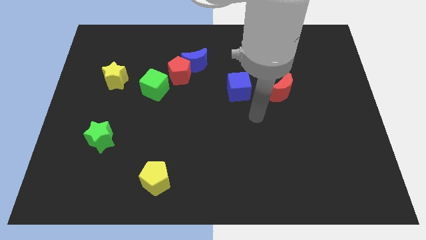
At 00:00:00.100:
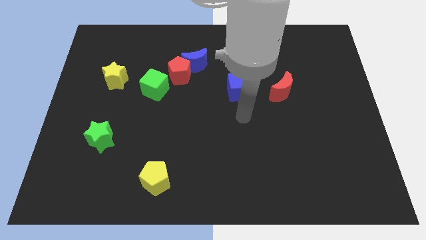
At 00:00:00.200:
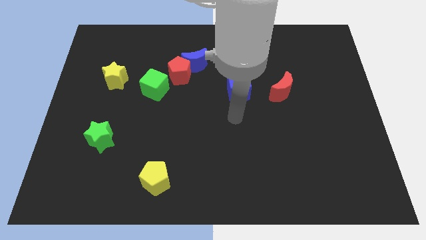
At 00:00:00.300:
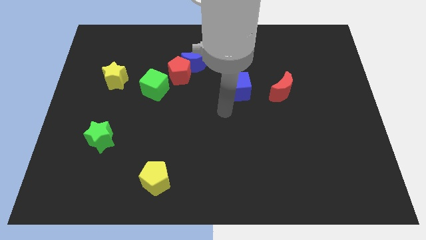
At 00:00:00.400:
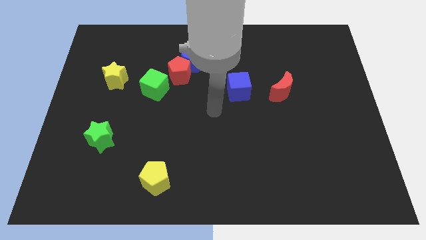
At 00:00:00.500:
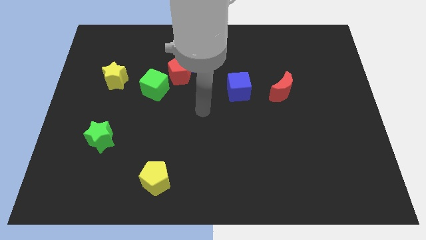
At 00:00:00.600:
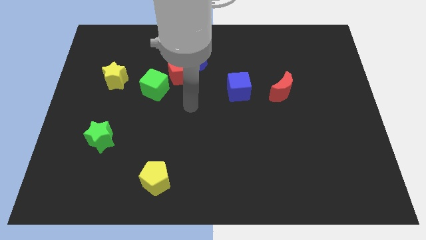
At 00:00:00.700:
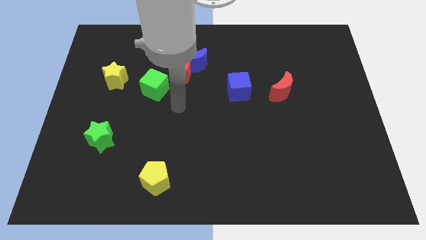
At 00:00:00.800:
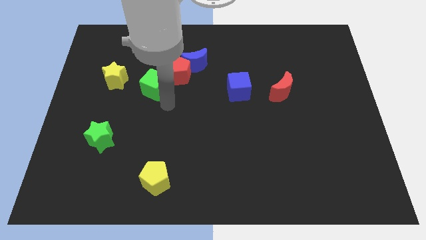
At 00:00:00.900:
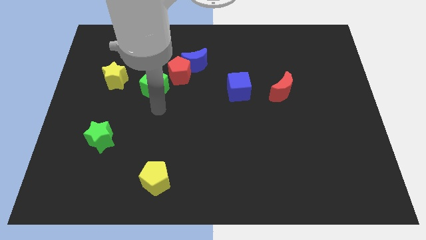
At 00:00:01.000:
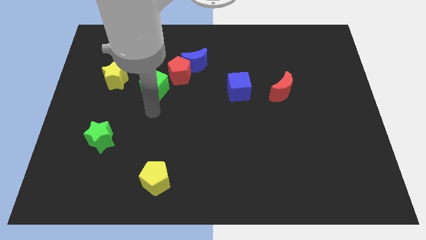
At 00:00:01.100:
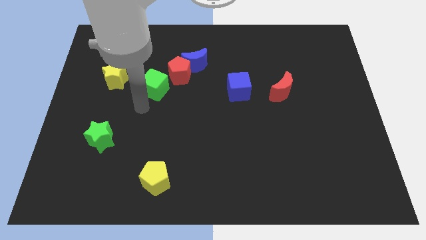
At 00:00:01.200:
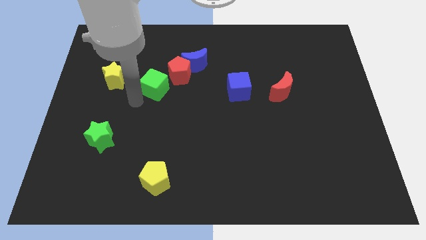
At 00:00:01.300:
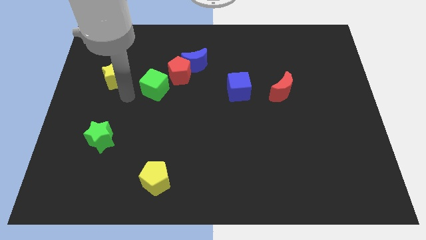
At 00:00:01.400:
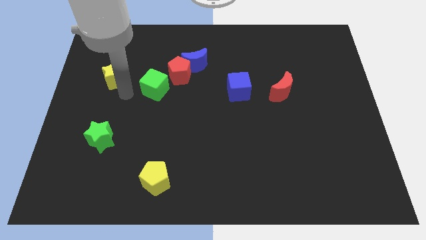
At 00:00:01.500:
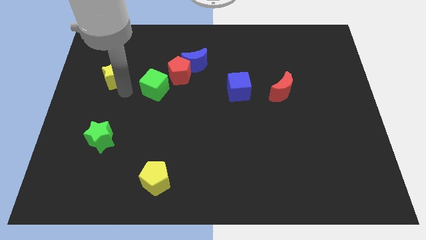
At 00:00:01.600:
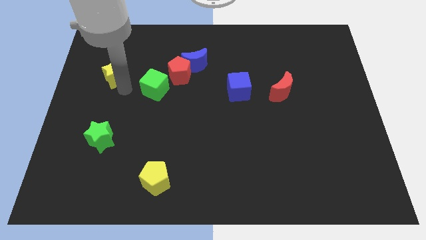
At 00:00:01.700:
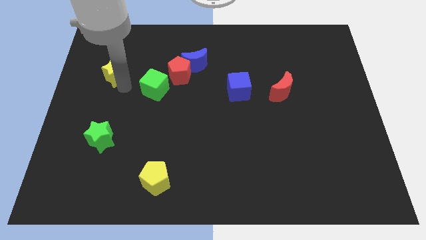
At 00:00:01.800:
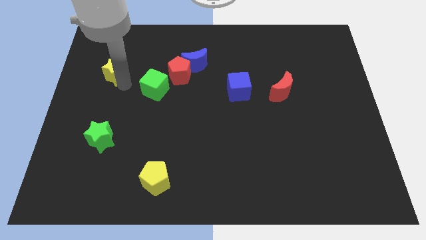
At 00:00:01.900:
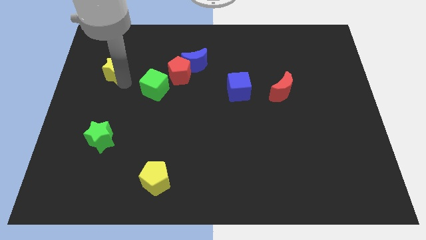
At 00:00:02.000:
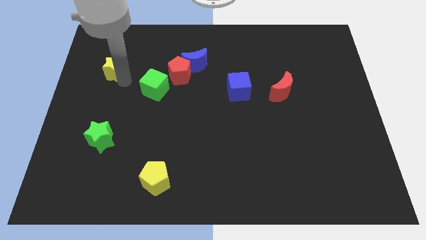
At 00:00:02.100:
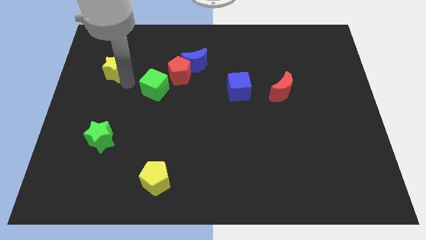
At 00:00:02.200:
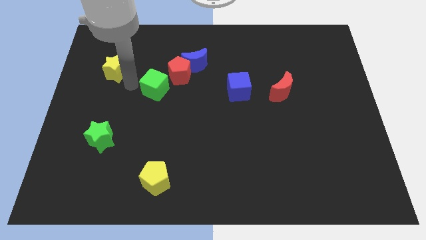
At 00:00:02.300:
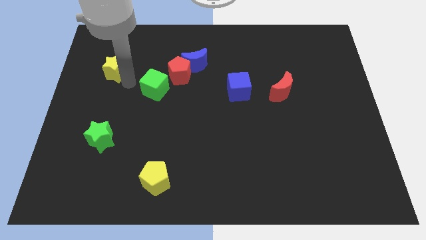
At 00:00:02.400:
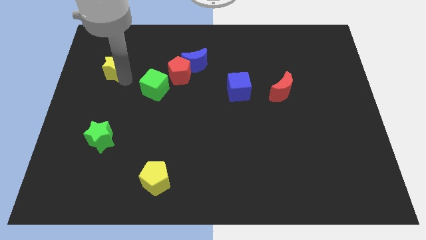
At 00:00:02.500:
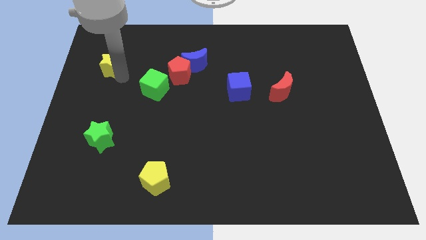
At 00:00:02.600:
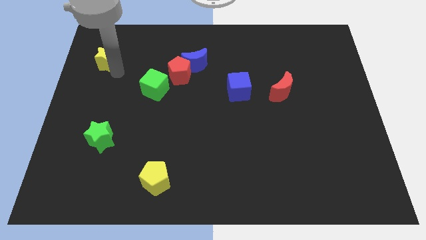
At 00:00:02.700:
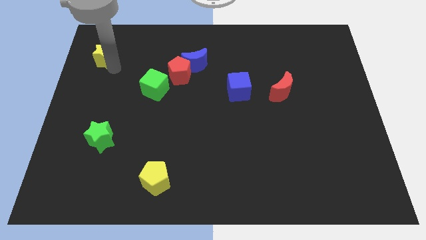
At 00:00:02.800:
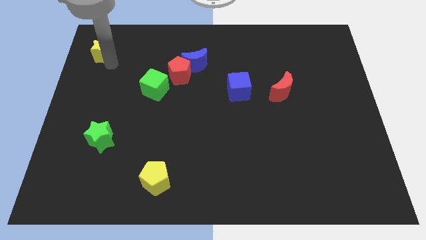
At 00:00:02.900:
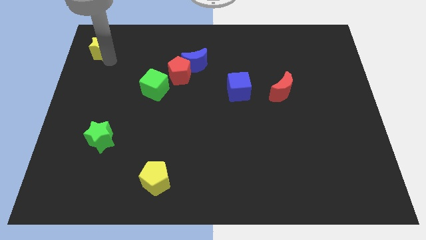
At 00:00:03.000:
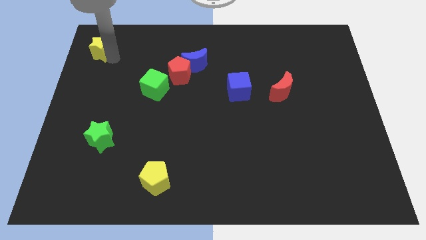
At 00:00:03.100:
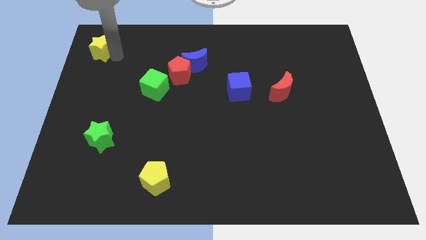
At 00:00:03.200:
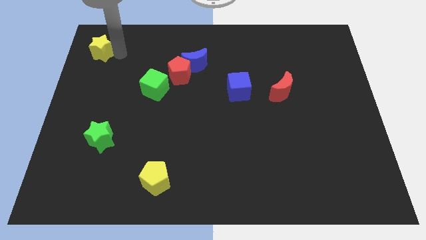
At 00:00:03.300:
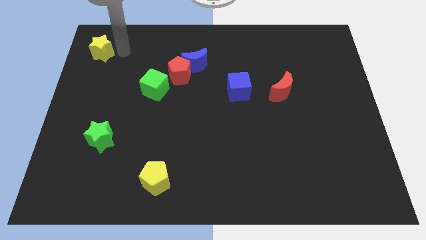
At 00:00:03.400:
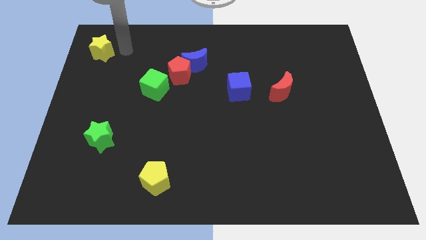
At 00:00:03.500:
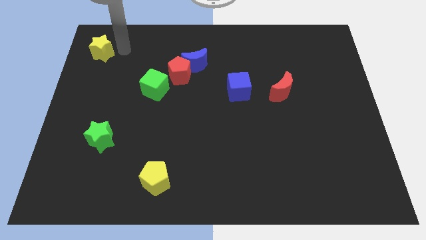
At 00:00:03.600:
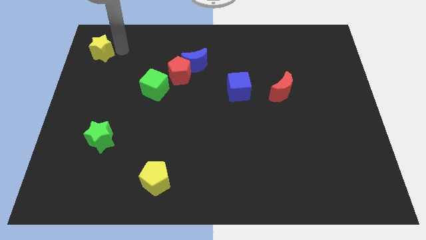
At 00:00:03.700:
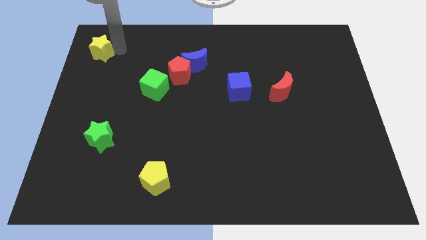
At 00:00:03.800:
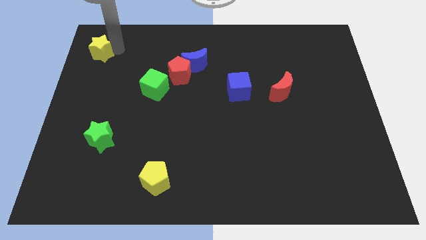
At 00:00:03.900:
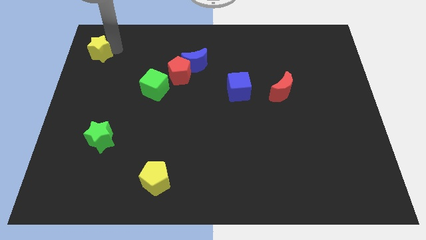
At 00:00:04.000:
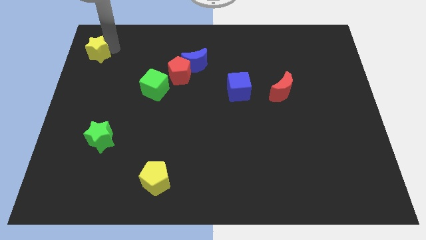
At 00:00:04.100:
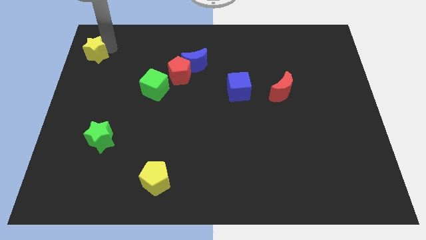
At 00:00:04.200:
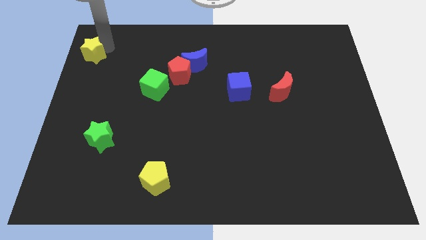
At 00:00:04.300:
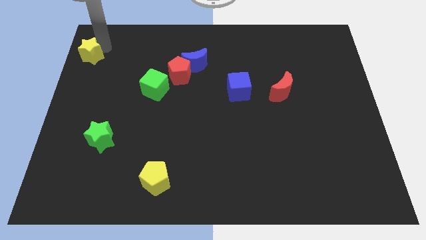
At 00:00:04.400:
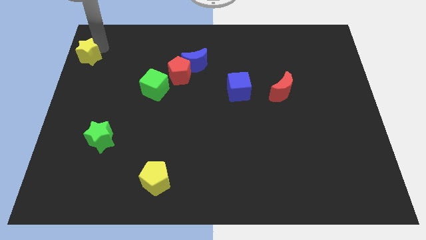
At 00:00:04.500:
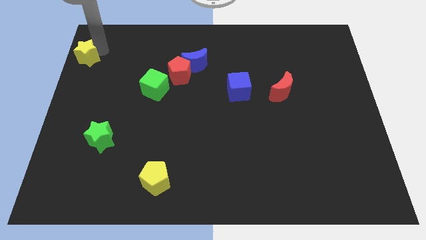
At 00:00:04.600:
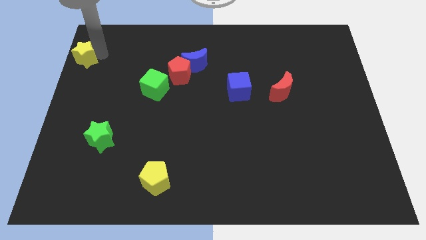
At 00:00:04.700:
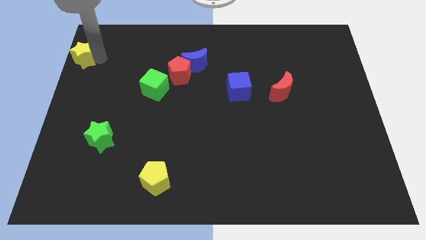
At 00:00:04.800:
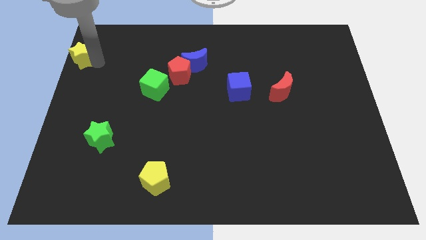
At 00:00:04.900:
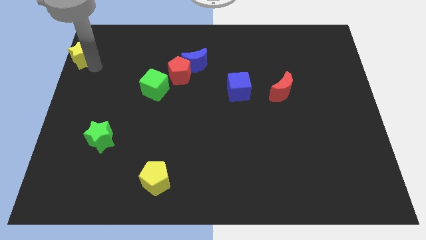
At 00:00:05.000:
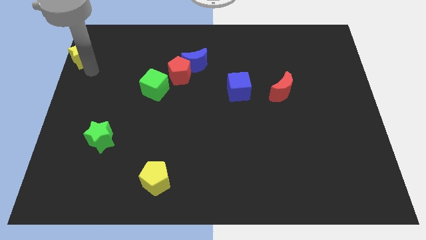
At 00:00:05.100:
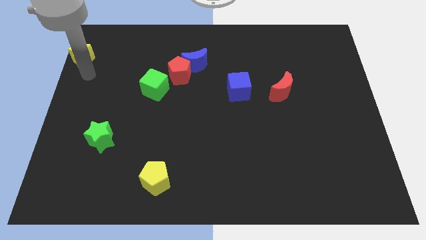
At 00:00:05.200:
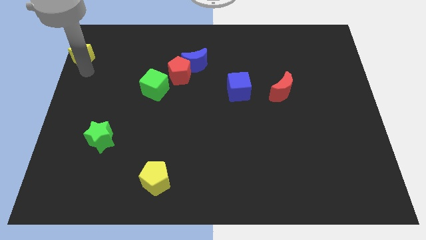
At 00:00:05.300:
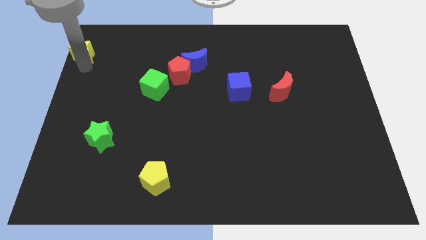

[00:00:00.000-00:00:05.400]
move the yellow star to the top left of the board

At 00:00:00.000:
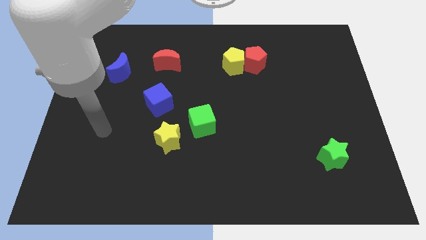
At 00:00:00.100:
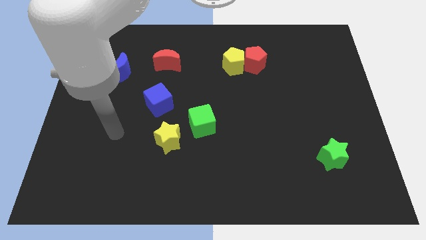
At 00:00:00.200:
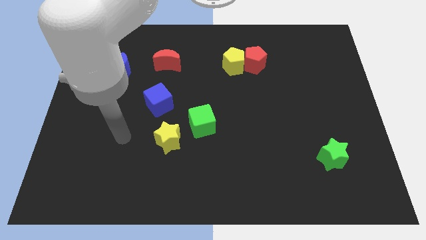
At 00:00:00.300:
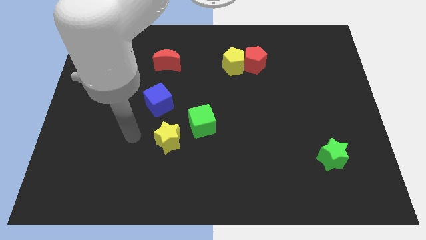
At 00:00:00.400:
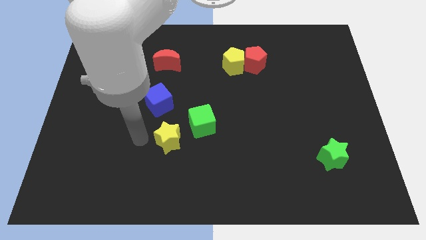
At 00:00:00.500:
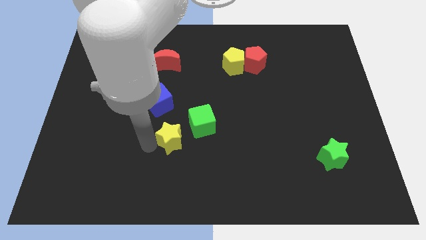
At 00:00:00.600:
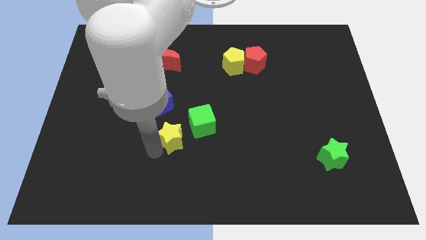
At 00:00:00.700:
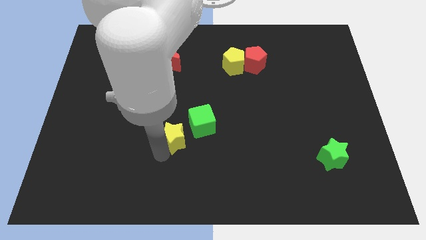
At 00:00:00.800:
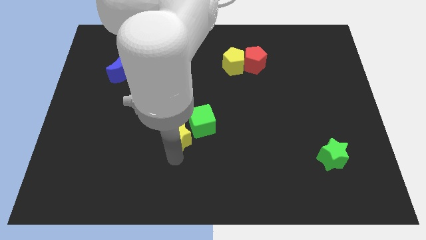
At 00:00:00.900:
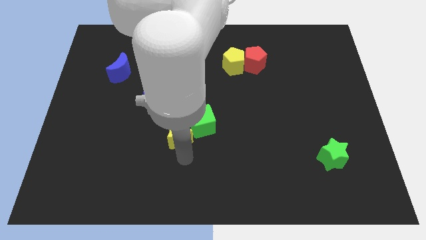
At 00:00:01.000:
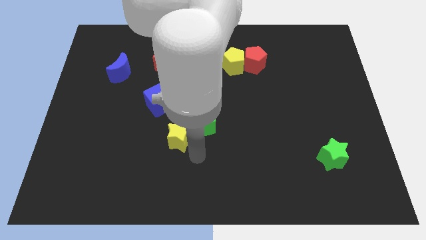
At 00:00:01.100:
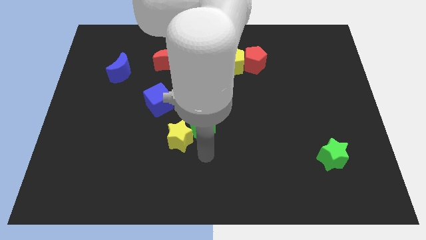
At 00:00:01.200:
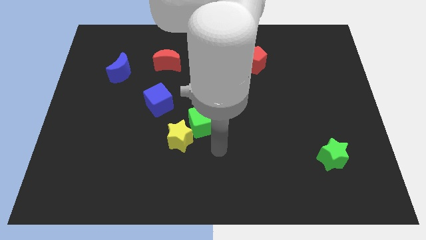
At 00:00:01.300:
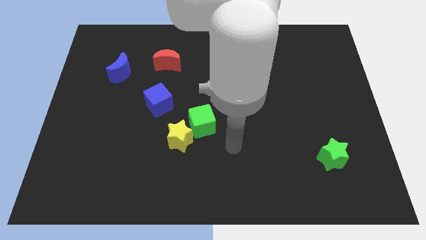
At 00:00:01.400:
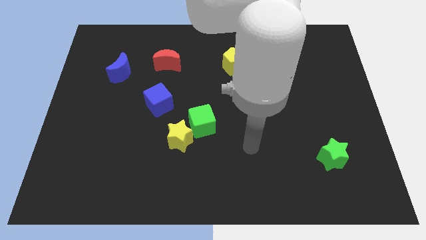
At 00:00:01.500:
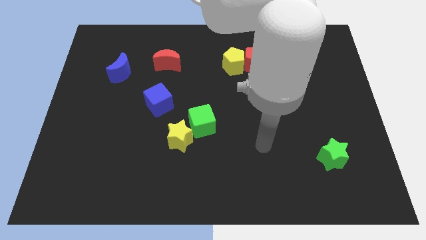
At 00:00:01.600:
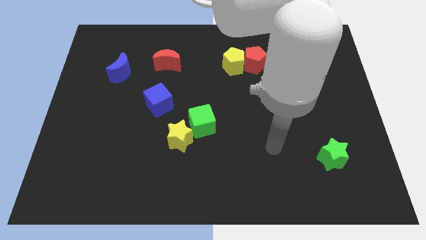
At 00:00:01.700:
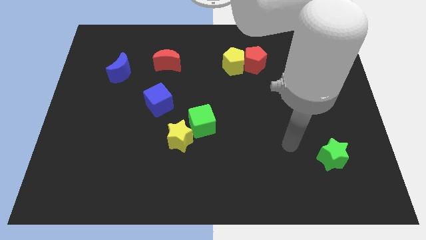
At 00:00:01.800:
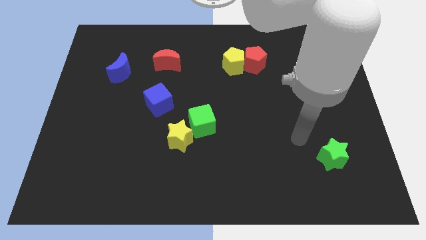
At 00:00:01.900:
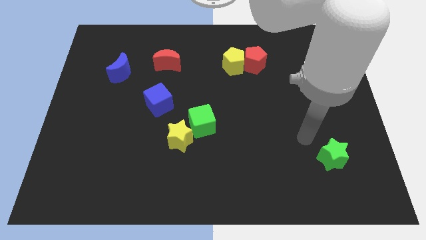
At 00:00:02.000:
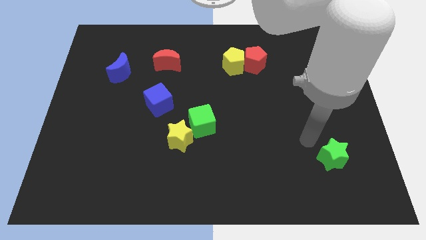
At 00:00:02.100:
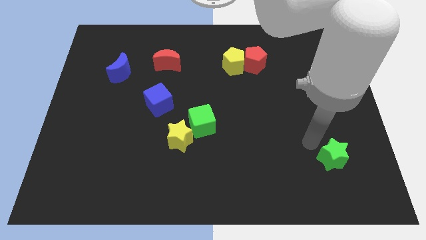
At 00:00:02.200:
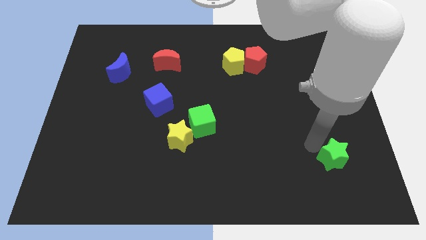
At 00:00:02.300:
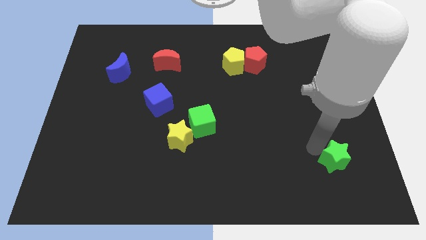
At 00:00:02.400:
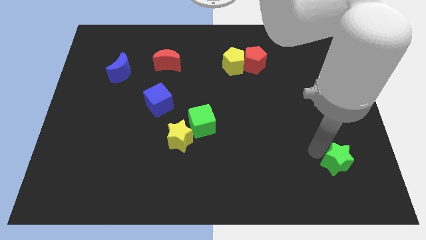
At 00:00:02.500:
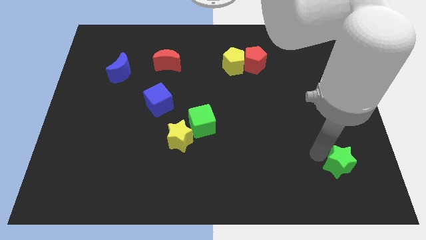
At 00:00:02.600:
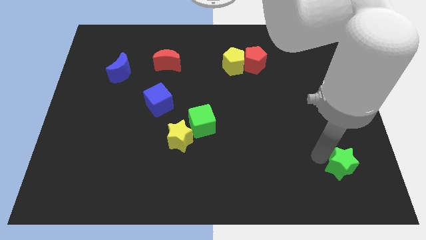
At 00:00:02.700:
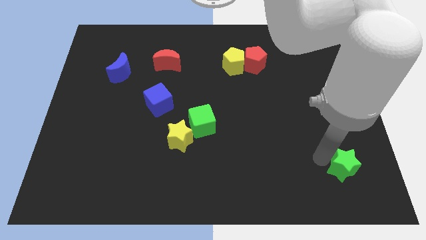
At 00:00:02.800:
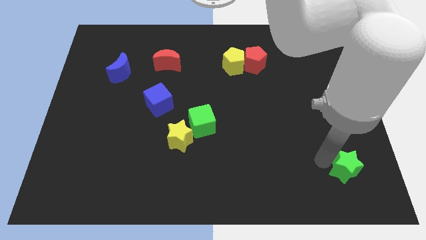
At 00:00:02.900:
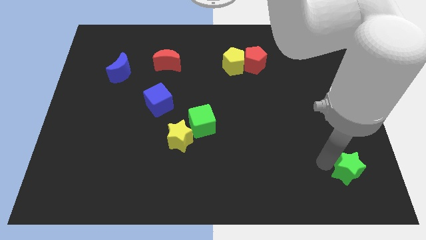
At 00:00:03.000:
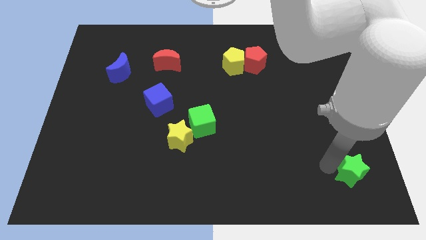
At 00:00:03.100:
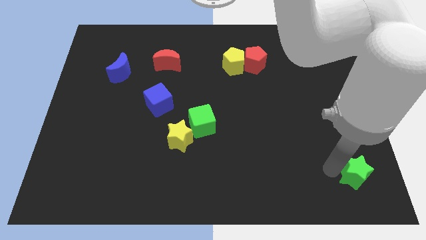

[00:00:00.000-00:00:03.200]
push the green star to the bottom right of the board
